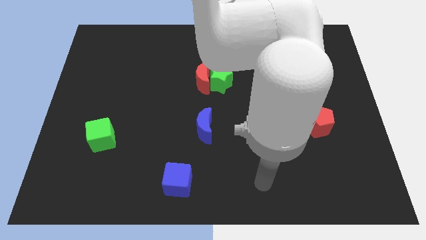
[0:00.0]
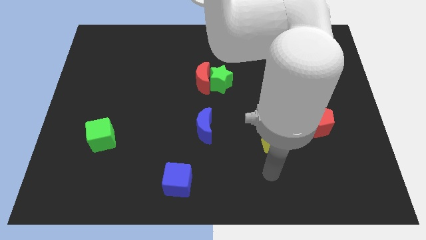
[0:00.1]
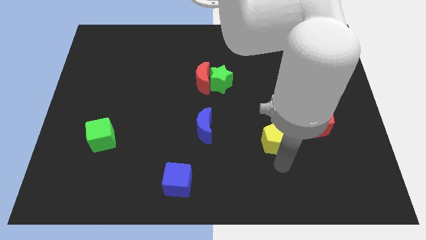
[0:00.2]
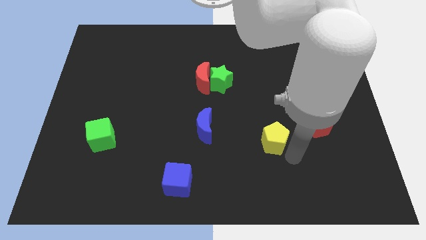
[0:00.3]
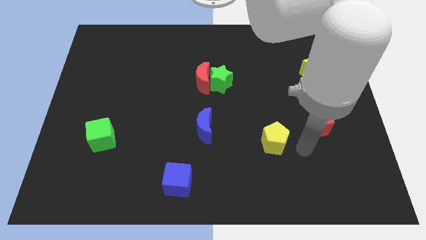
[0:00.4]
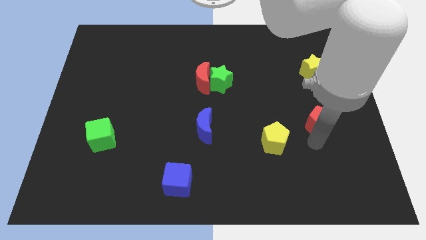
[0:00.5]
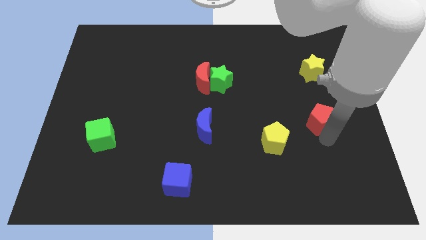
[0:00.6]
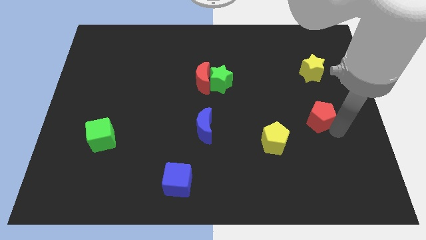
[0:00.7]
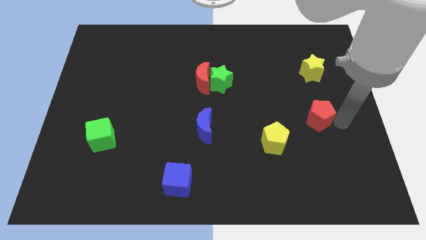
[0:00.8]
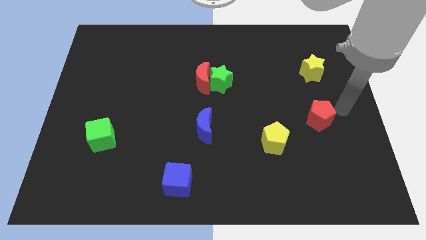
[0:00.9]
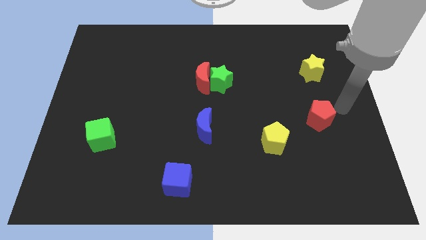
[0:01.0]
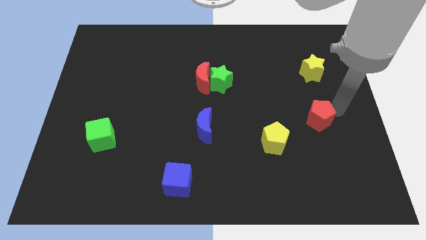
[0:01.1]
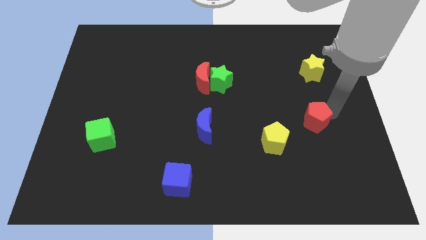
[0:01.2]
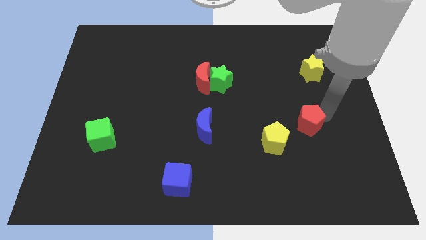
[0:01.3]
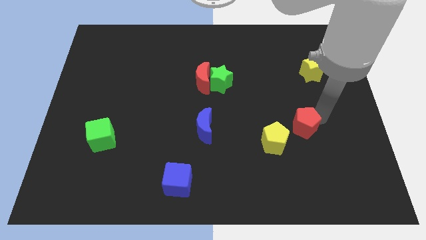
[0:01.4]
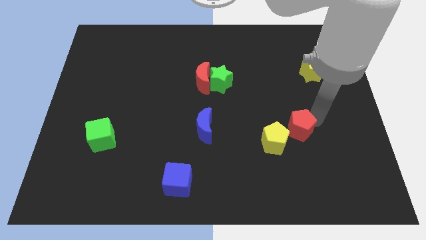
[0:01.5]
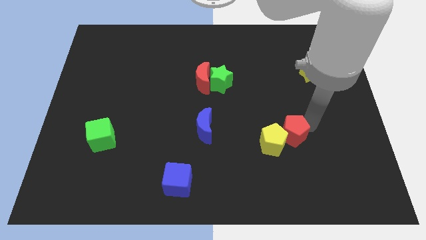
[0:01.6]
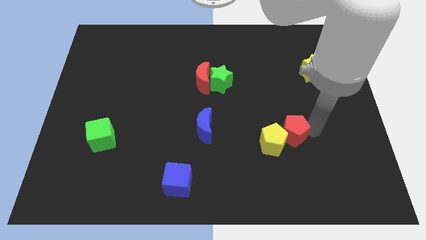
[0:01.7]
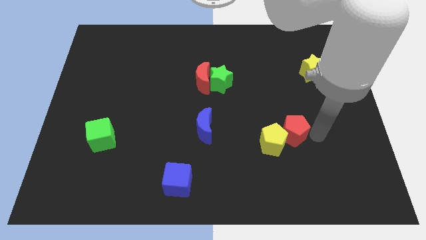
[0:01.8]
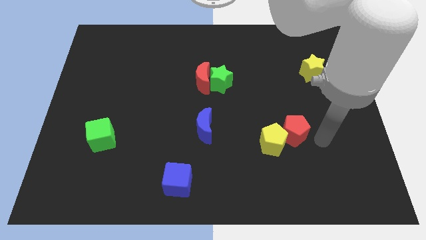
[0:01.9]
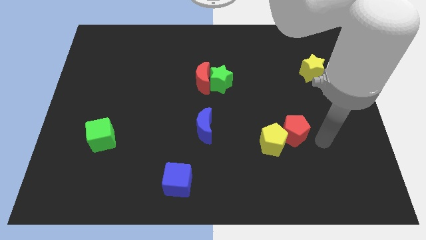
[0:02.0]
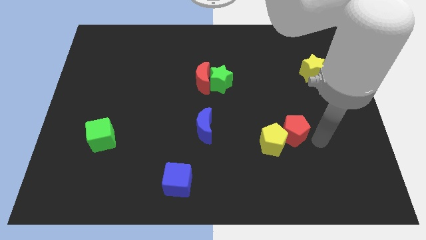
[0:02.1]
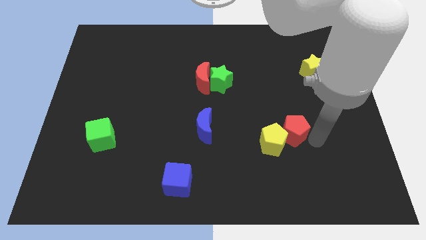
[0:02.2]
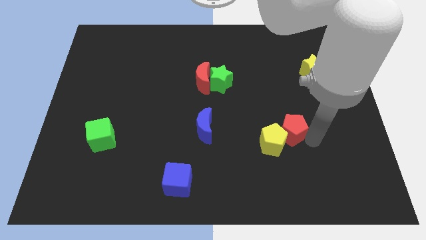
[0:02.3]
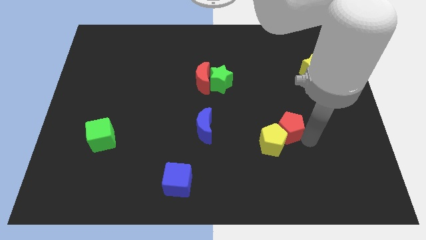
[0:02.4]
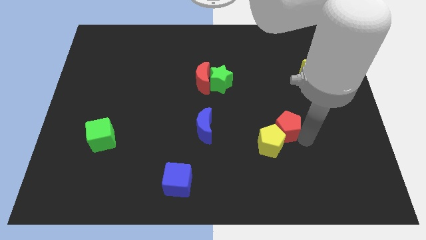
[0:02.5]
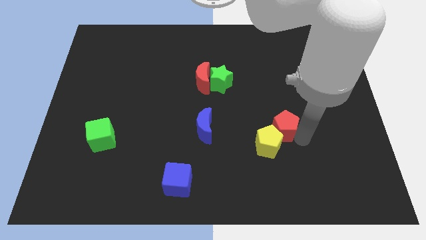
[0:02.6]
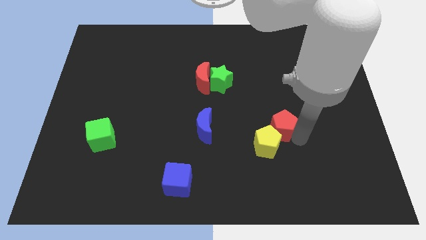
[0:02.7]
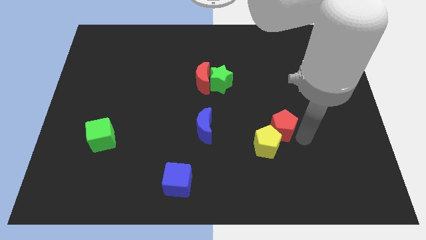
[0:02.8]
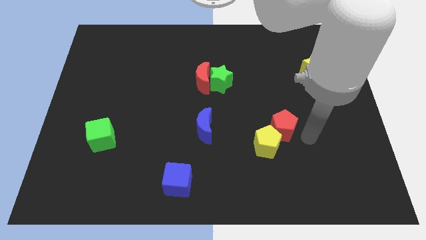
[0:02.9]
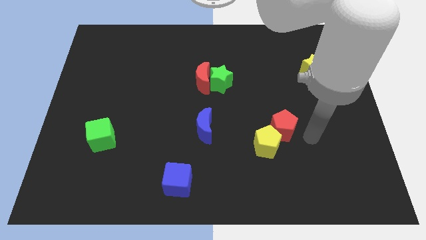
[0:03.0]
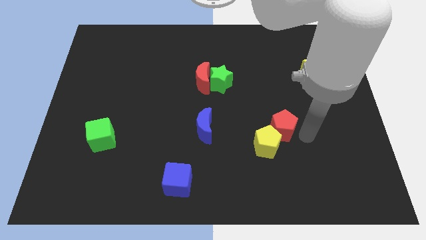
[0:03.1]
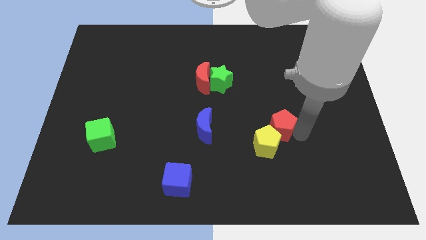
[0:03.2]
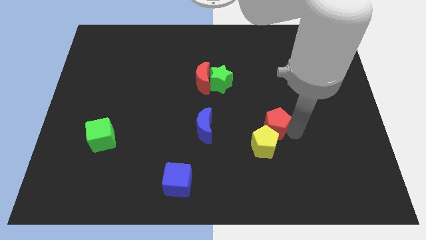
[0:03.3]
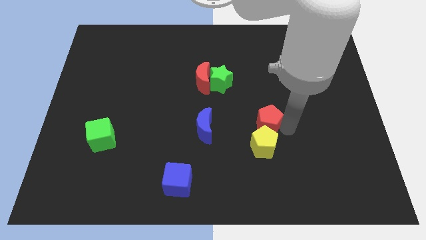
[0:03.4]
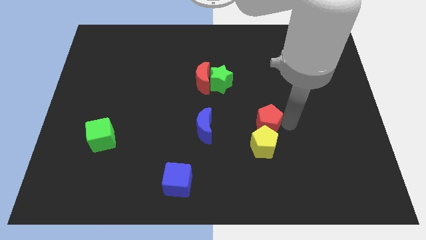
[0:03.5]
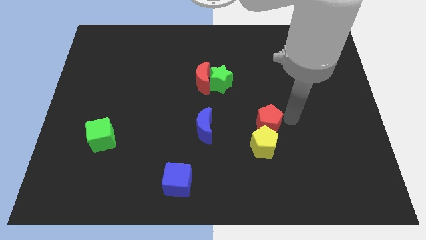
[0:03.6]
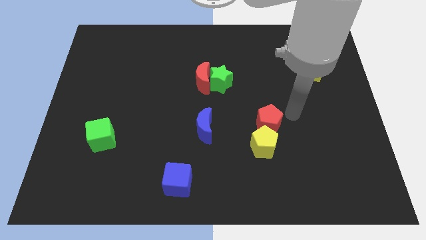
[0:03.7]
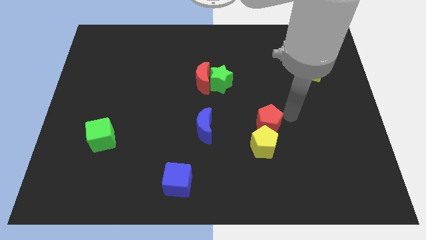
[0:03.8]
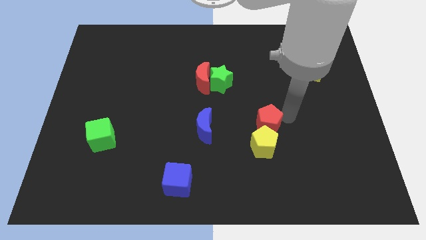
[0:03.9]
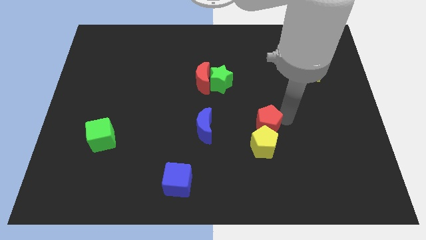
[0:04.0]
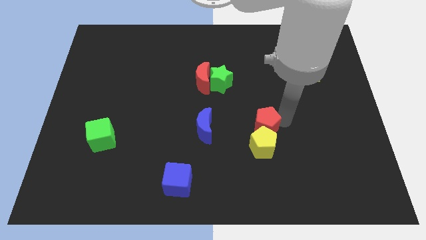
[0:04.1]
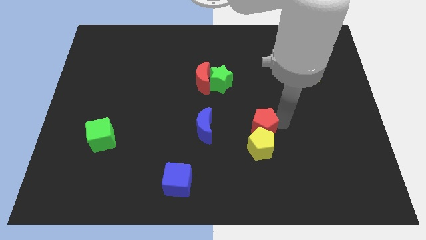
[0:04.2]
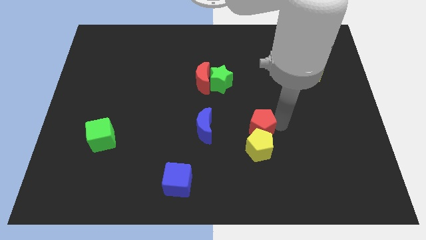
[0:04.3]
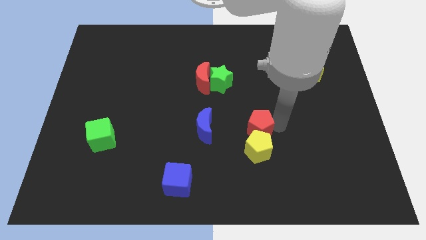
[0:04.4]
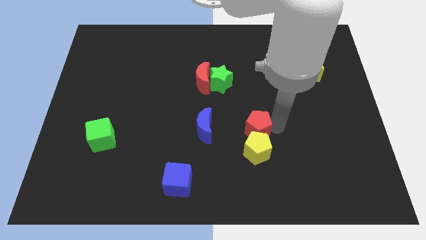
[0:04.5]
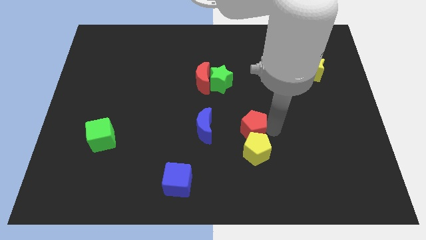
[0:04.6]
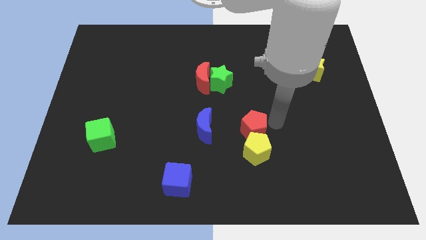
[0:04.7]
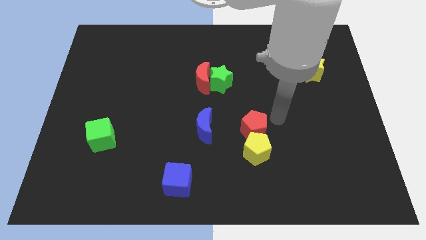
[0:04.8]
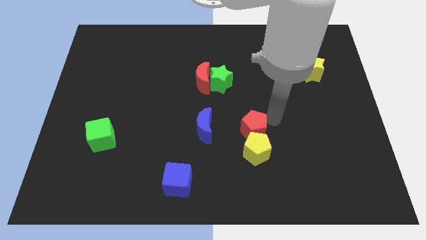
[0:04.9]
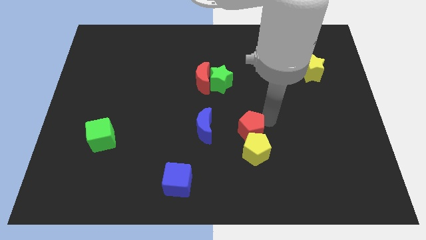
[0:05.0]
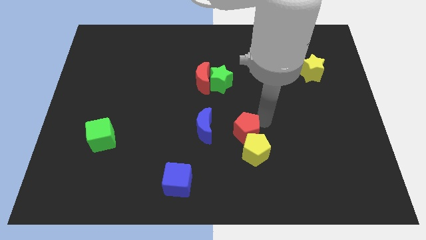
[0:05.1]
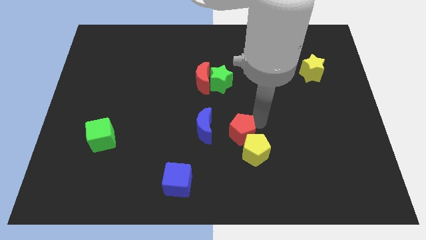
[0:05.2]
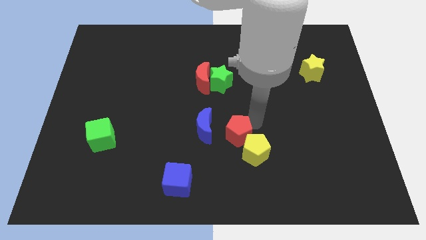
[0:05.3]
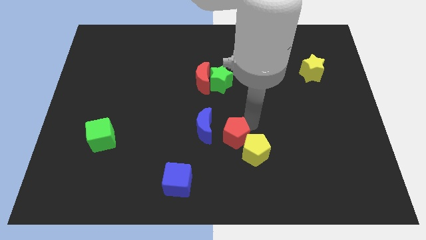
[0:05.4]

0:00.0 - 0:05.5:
move the red pentagon left of the yellow pentagon

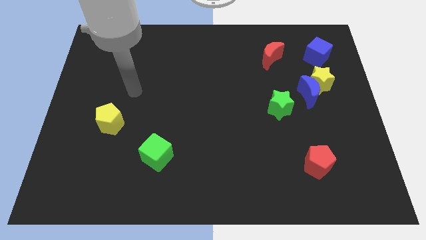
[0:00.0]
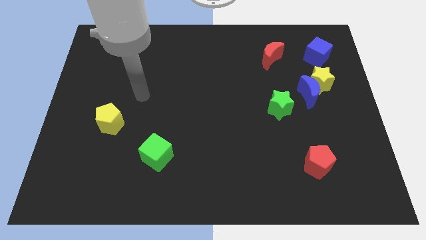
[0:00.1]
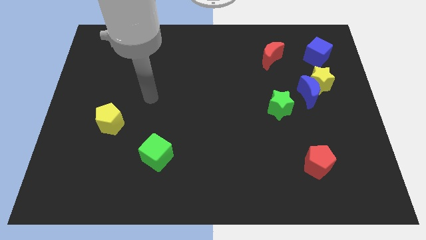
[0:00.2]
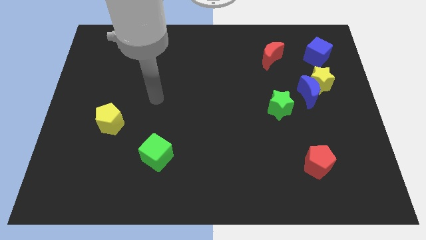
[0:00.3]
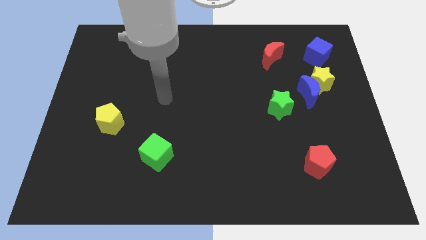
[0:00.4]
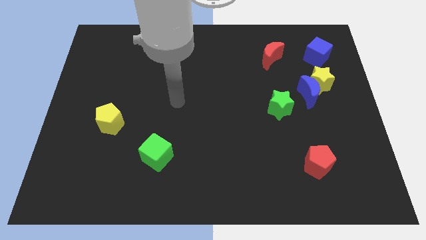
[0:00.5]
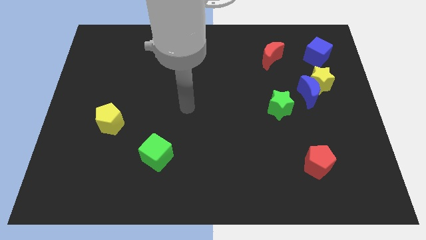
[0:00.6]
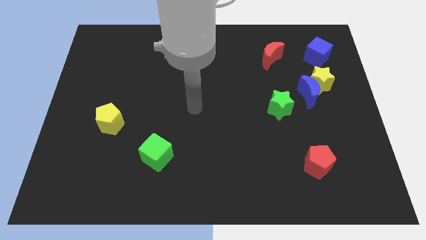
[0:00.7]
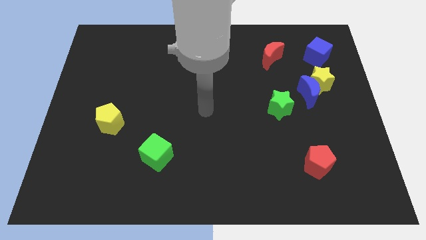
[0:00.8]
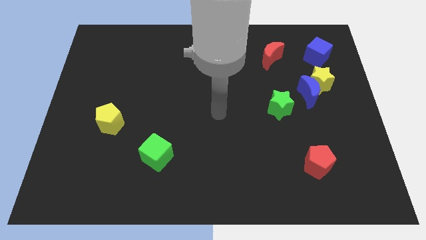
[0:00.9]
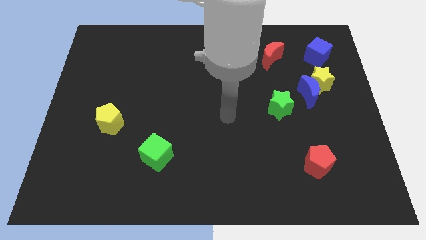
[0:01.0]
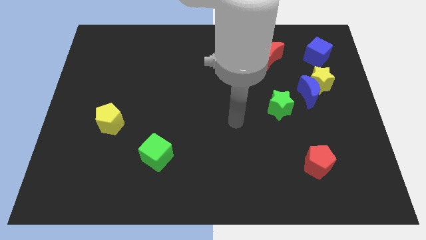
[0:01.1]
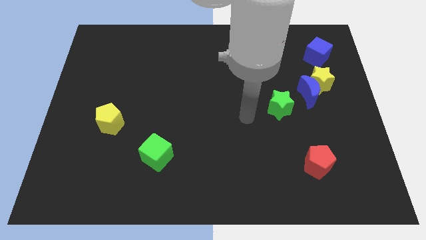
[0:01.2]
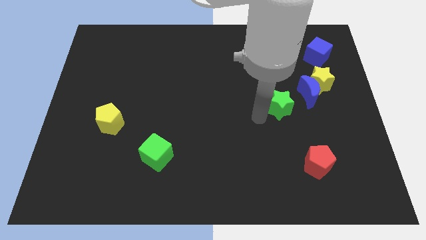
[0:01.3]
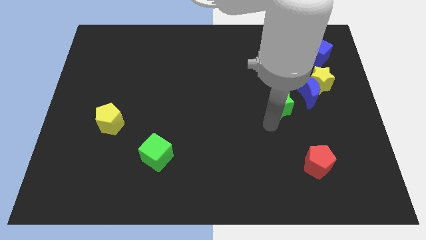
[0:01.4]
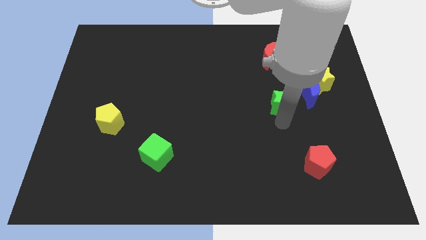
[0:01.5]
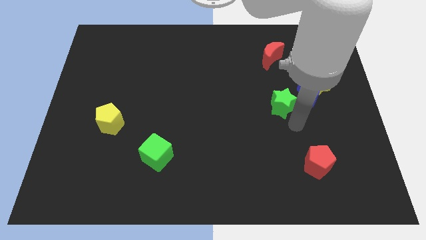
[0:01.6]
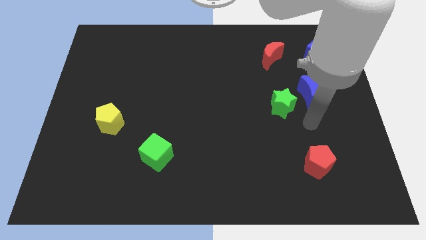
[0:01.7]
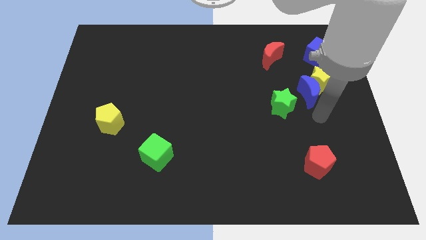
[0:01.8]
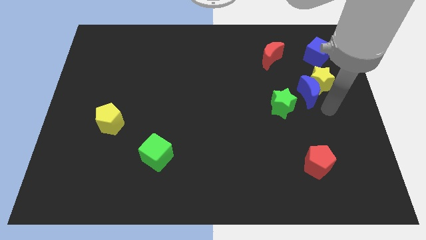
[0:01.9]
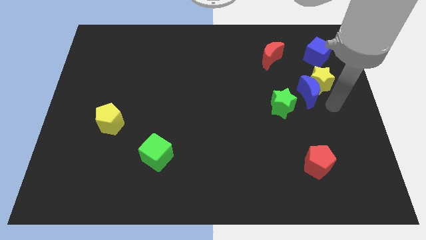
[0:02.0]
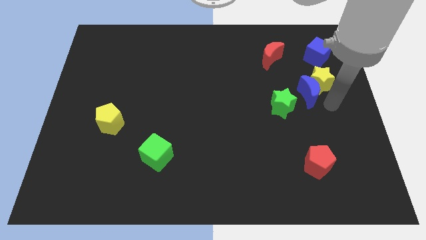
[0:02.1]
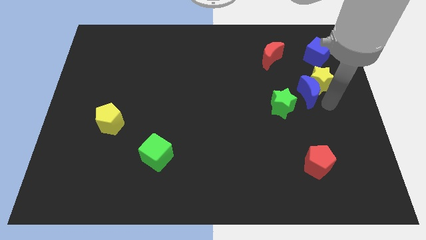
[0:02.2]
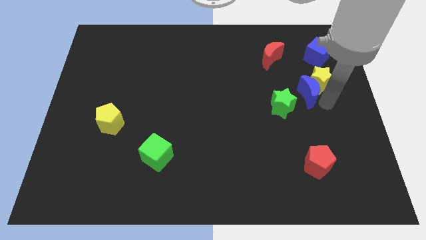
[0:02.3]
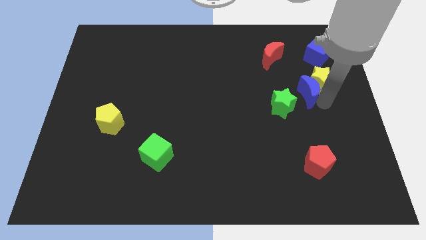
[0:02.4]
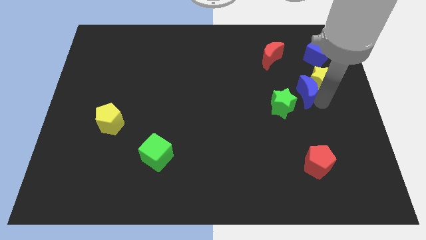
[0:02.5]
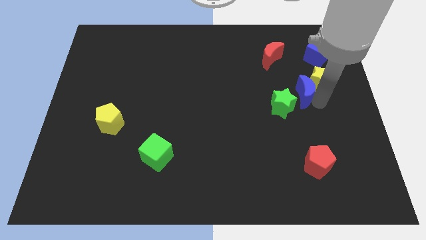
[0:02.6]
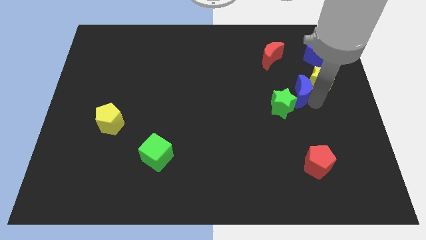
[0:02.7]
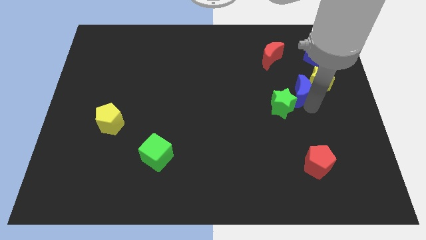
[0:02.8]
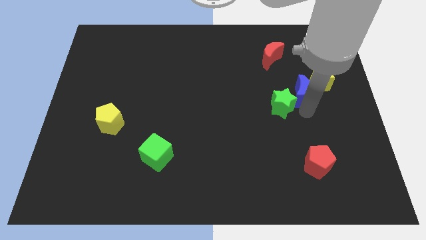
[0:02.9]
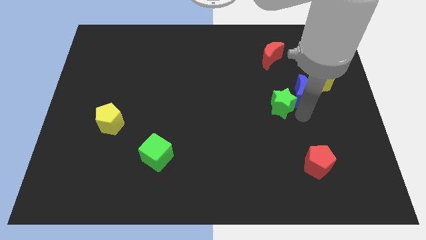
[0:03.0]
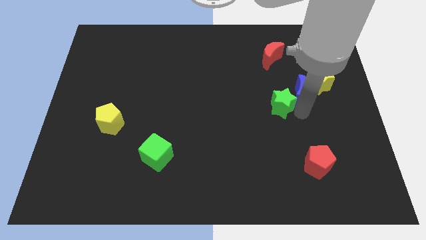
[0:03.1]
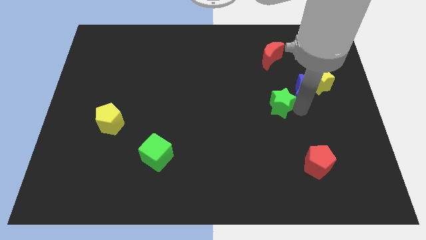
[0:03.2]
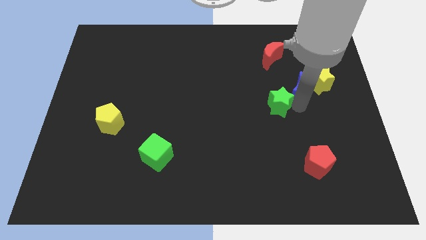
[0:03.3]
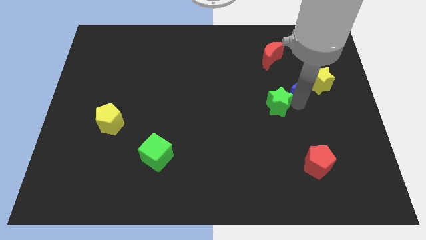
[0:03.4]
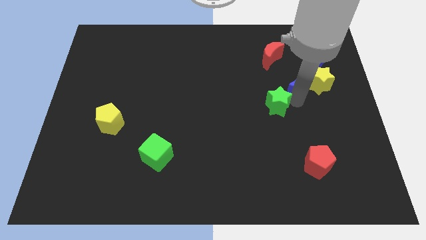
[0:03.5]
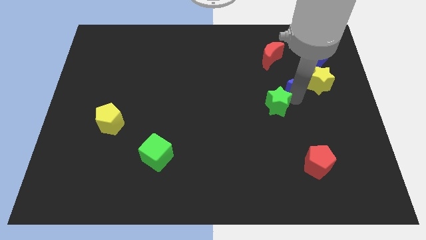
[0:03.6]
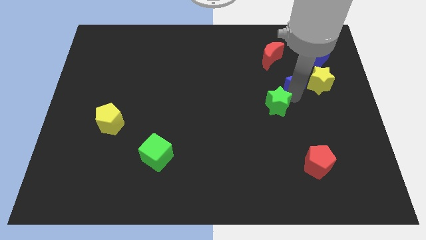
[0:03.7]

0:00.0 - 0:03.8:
put the blue moon diagonally down and to the left of the blue cube
